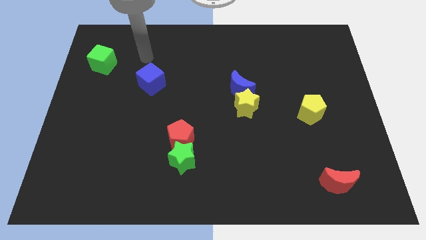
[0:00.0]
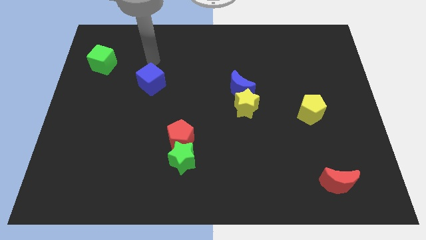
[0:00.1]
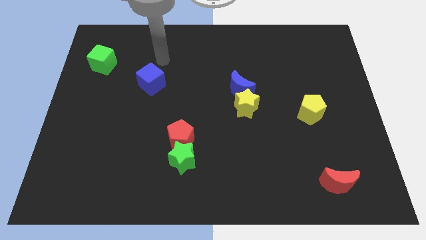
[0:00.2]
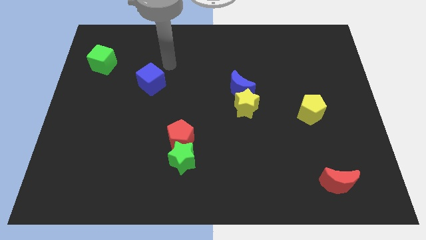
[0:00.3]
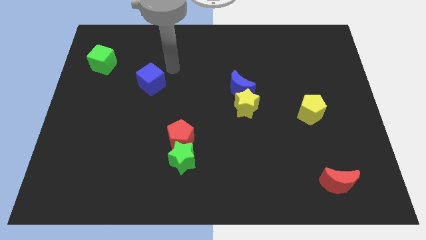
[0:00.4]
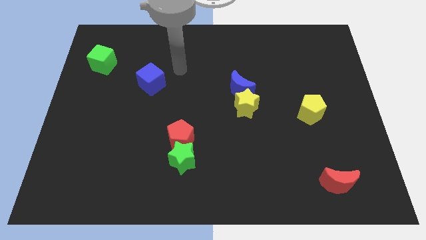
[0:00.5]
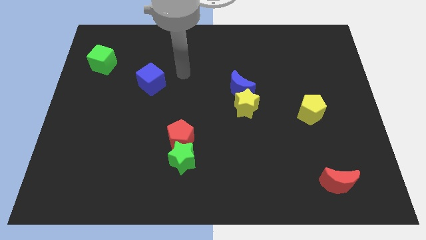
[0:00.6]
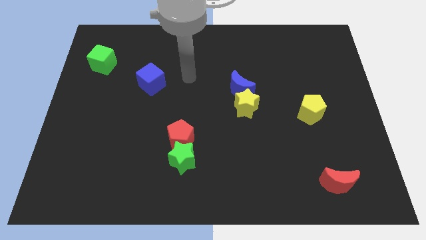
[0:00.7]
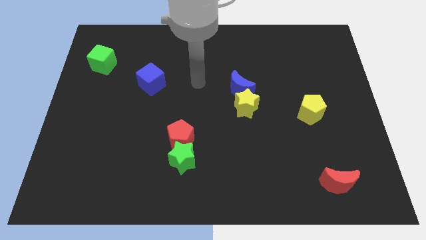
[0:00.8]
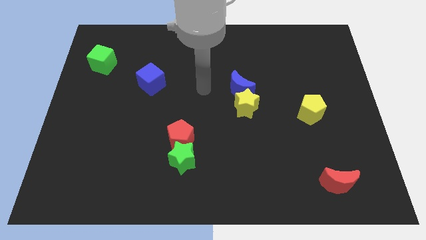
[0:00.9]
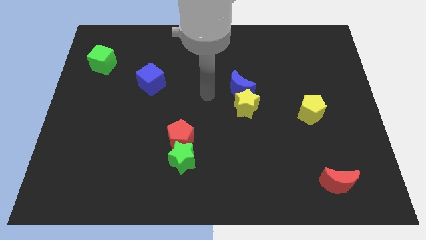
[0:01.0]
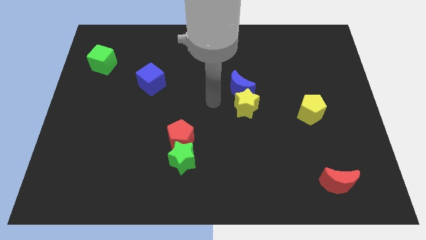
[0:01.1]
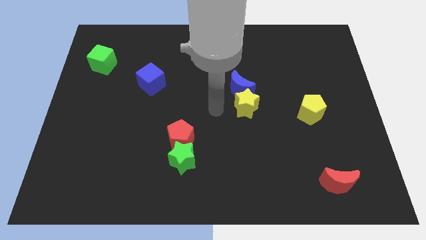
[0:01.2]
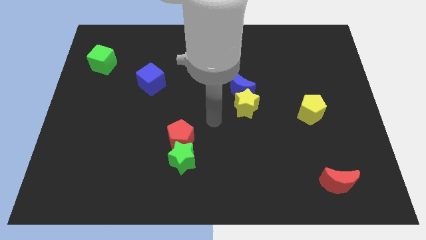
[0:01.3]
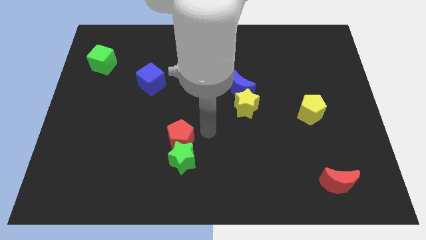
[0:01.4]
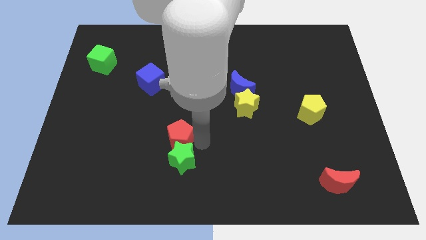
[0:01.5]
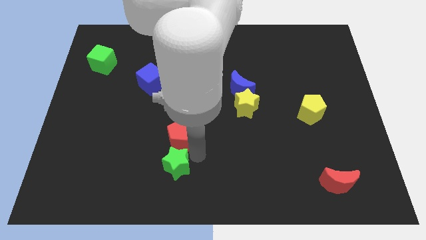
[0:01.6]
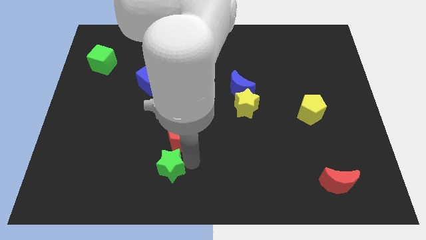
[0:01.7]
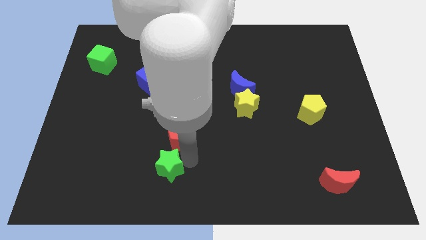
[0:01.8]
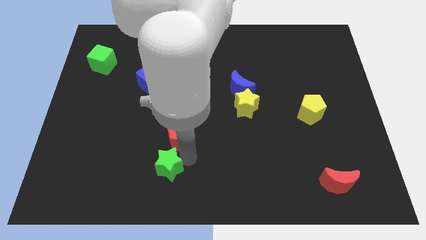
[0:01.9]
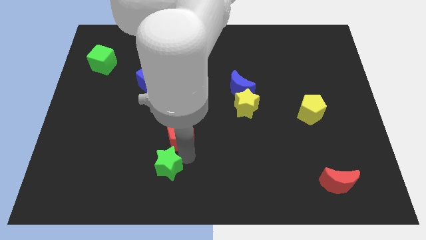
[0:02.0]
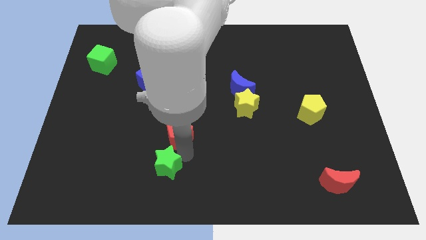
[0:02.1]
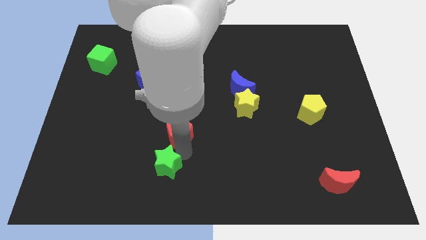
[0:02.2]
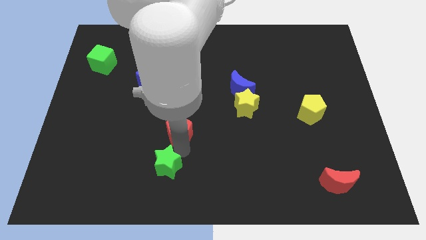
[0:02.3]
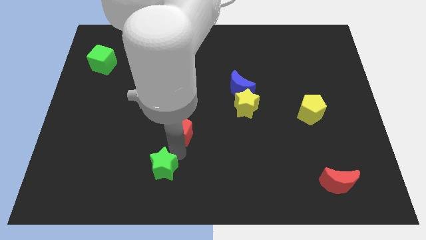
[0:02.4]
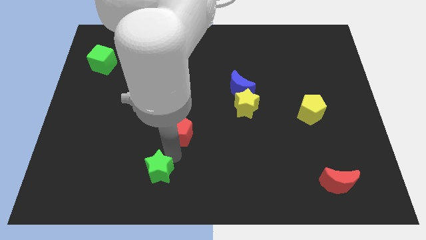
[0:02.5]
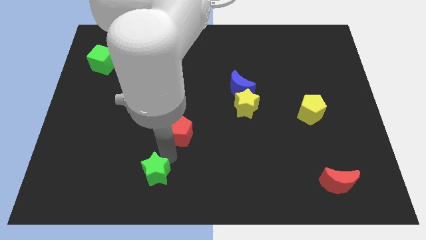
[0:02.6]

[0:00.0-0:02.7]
pull the red pentagon apart from the green star

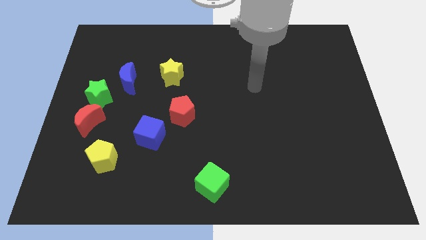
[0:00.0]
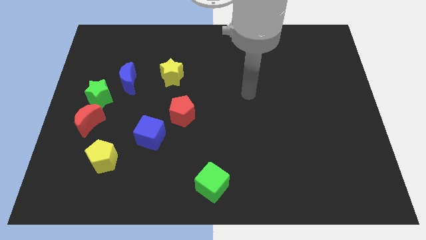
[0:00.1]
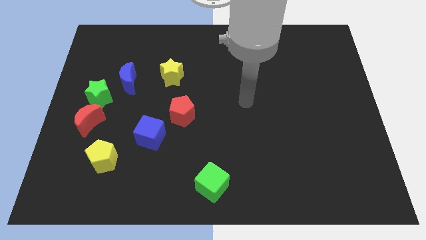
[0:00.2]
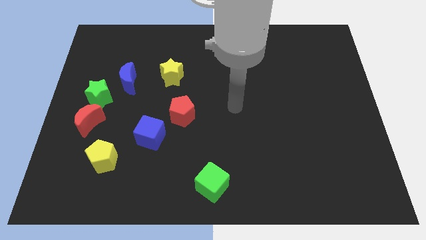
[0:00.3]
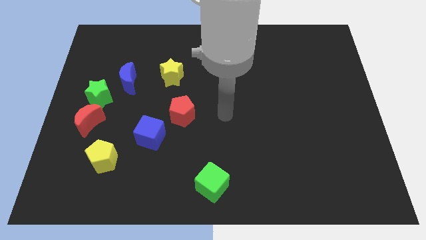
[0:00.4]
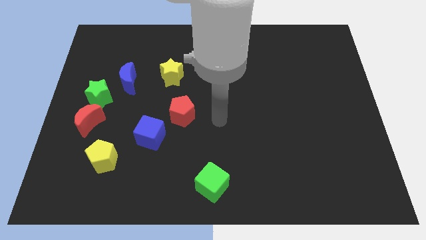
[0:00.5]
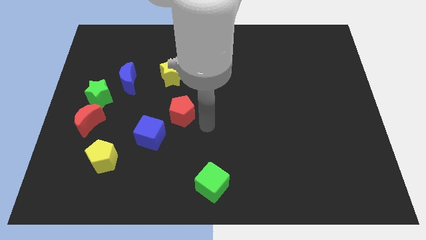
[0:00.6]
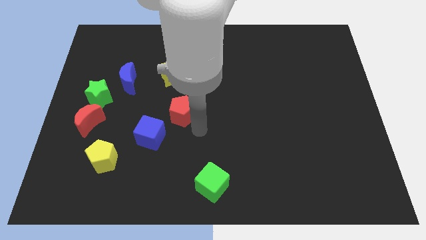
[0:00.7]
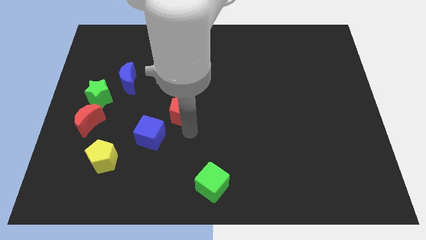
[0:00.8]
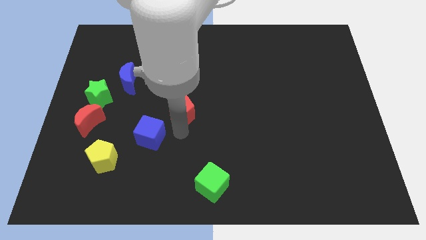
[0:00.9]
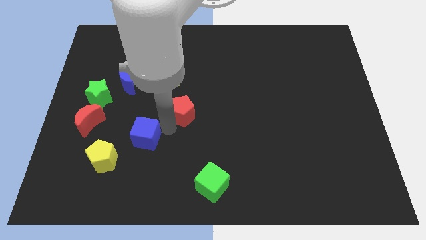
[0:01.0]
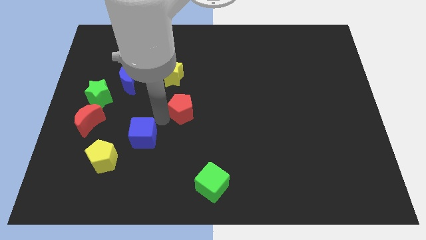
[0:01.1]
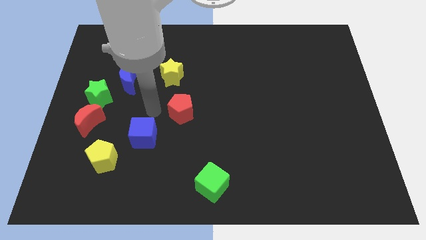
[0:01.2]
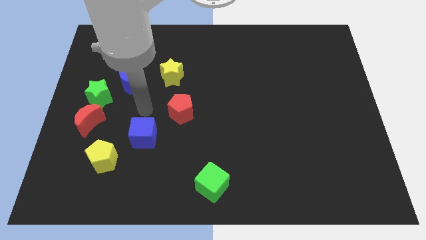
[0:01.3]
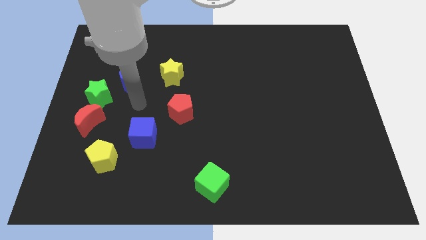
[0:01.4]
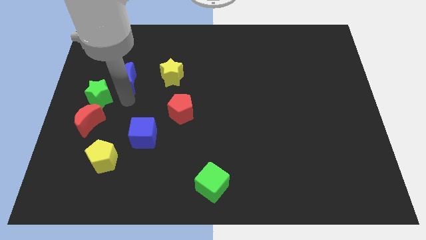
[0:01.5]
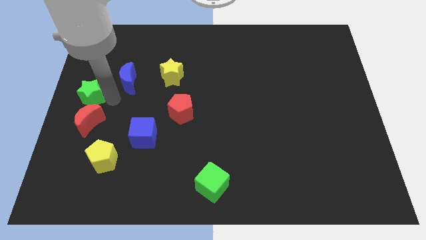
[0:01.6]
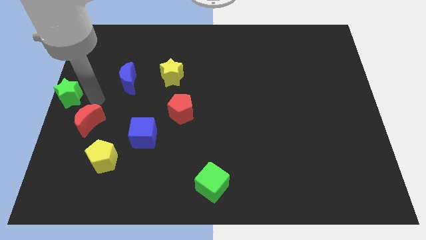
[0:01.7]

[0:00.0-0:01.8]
move the red moon away from the green star

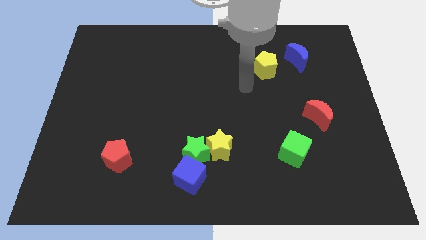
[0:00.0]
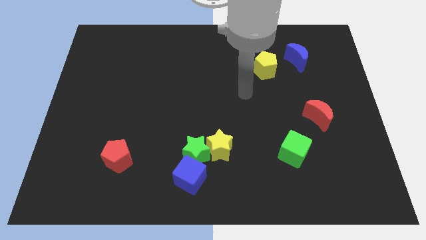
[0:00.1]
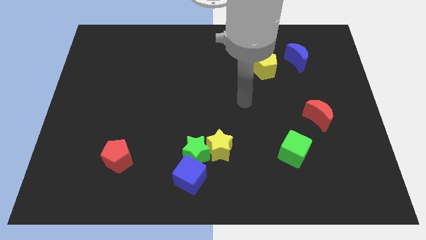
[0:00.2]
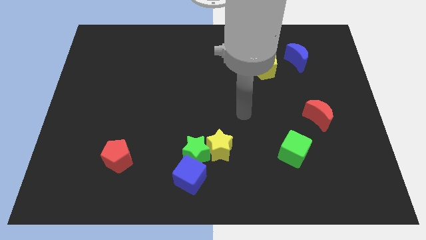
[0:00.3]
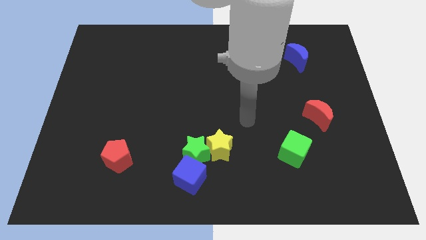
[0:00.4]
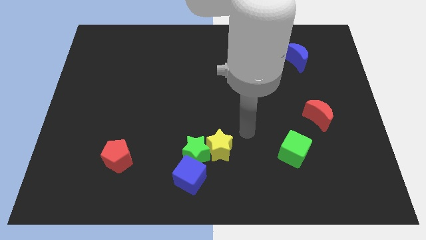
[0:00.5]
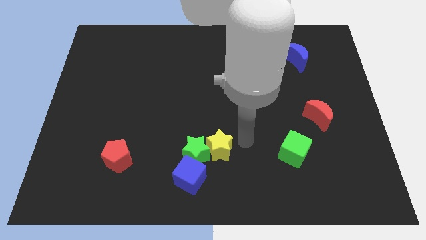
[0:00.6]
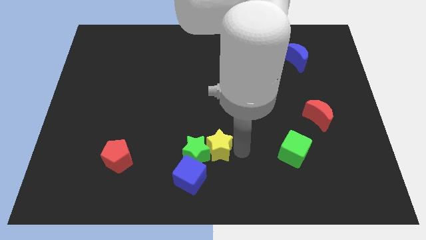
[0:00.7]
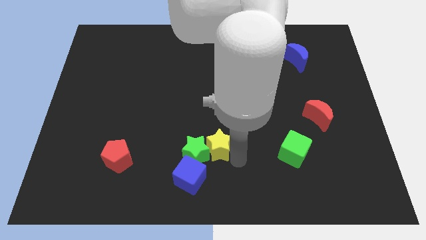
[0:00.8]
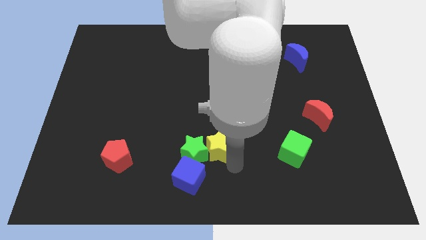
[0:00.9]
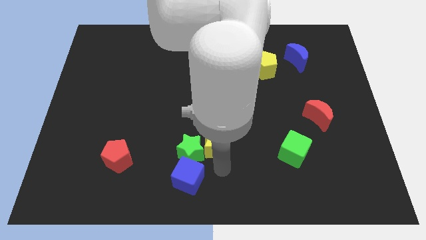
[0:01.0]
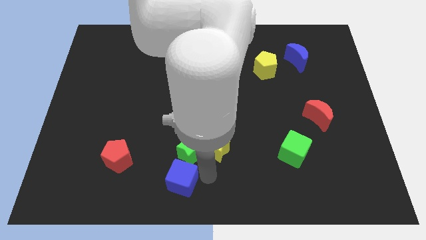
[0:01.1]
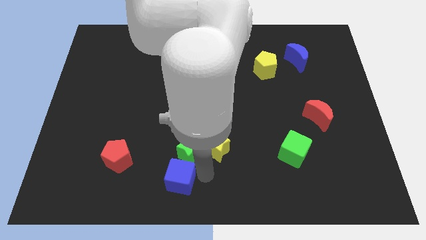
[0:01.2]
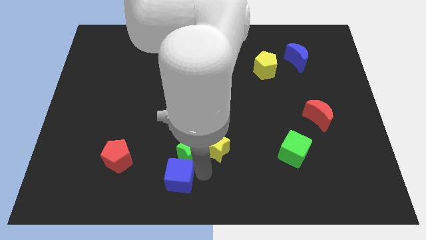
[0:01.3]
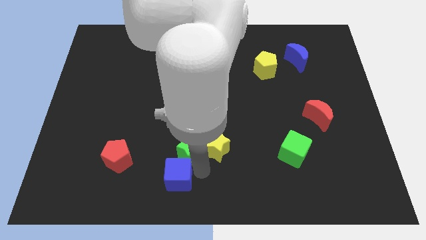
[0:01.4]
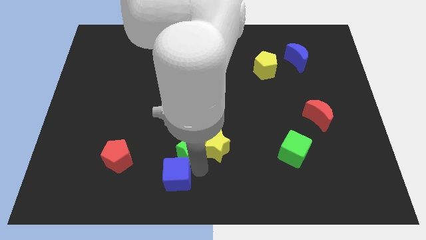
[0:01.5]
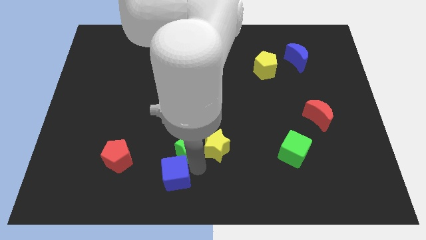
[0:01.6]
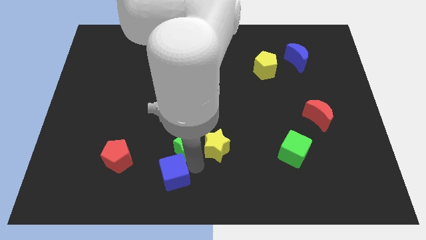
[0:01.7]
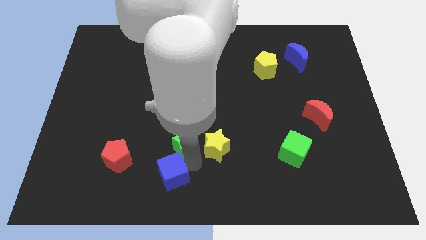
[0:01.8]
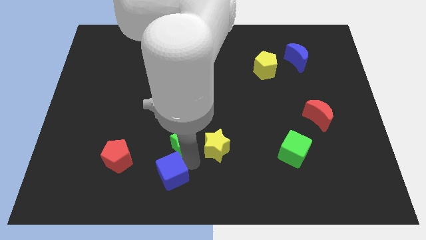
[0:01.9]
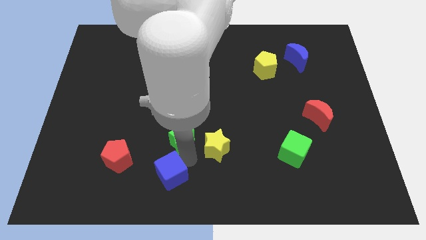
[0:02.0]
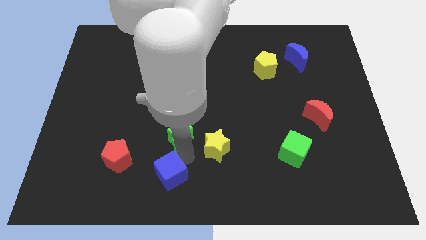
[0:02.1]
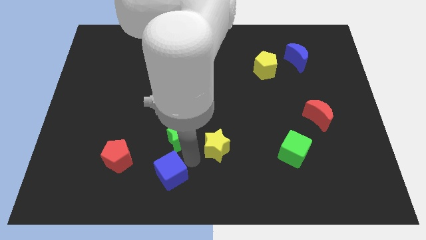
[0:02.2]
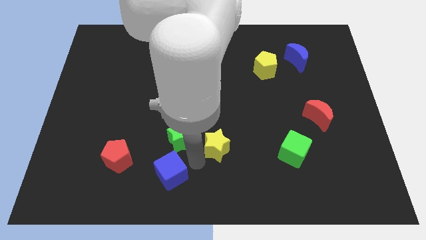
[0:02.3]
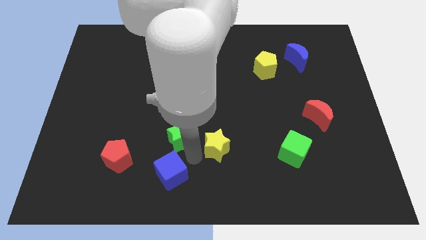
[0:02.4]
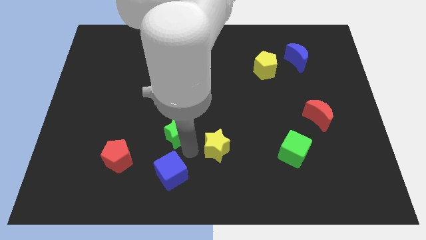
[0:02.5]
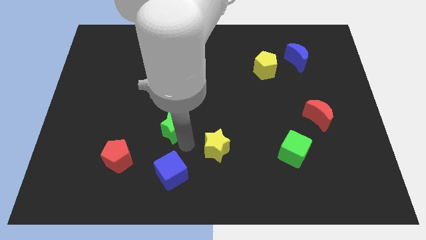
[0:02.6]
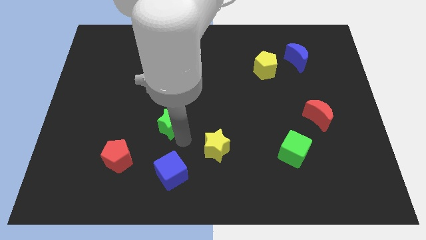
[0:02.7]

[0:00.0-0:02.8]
move the green star away from the yellow star and blue cube

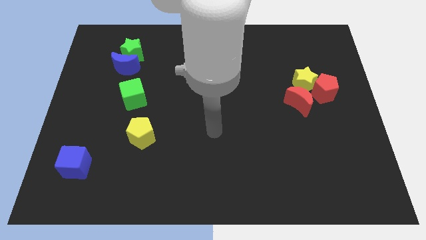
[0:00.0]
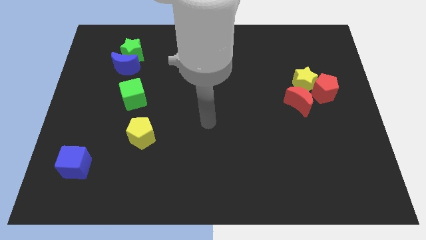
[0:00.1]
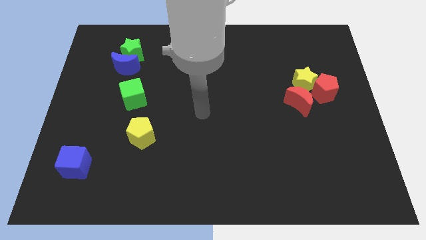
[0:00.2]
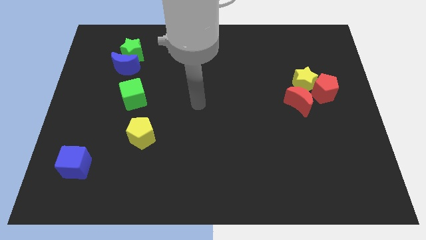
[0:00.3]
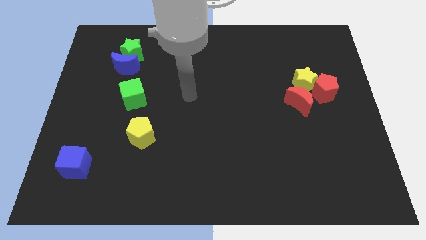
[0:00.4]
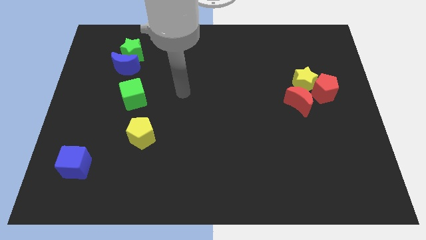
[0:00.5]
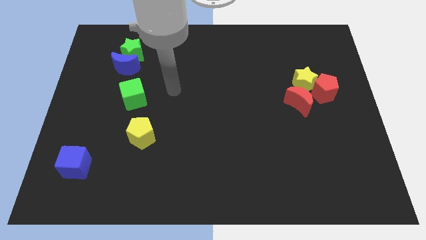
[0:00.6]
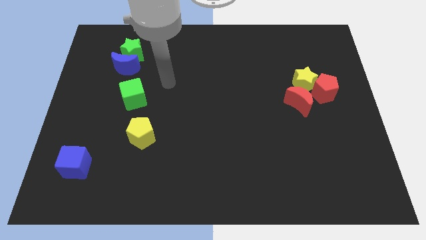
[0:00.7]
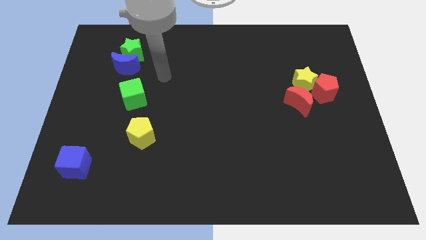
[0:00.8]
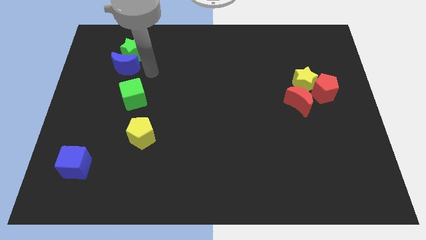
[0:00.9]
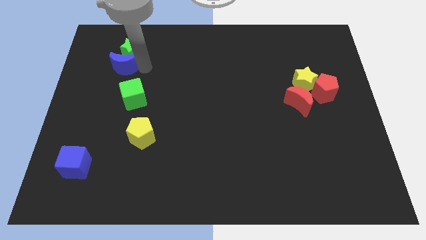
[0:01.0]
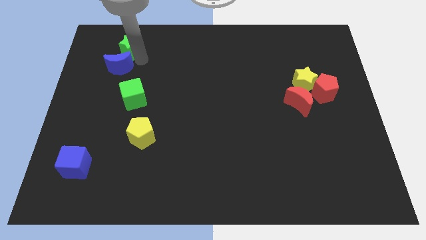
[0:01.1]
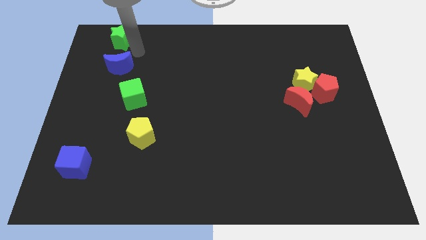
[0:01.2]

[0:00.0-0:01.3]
pull the blue moon apart from the green star

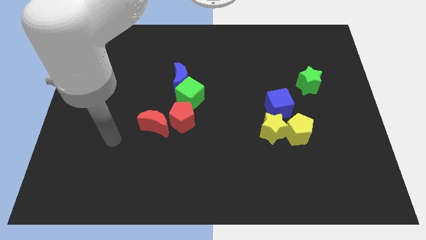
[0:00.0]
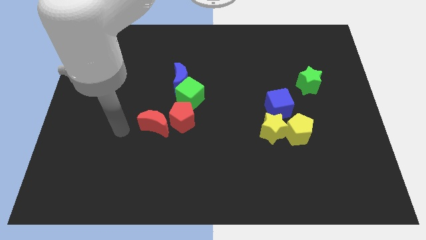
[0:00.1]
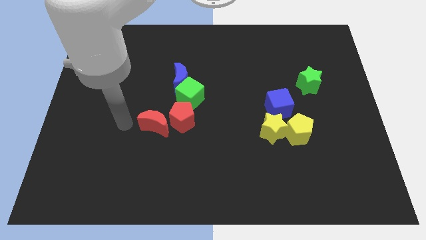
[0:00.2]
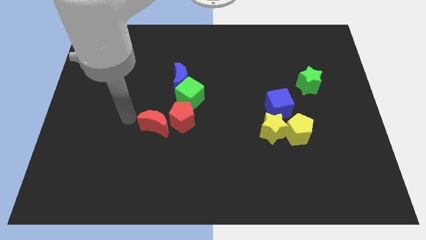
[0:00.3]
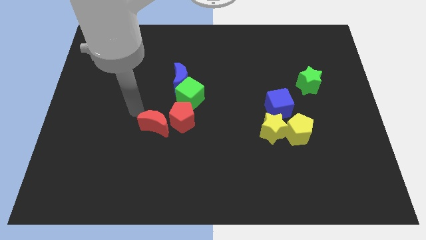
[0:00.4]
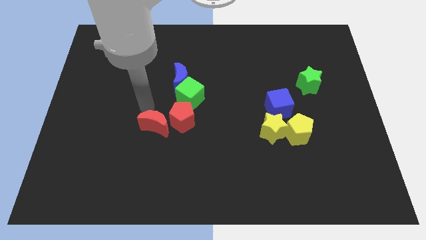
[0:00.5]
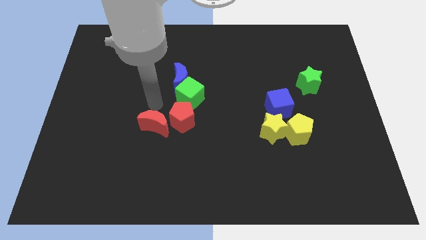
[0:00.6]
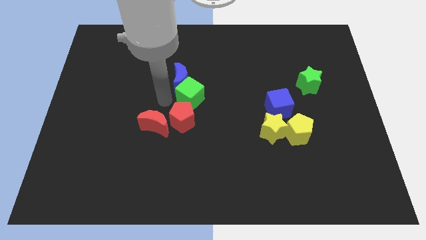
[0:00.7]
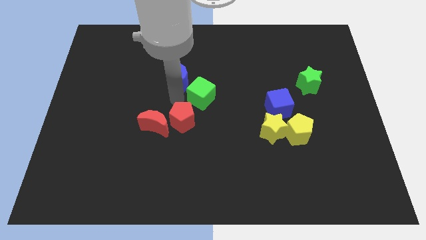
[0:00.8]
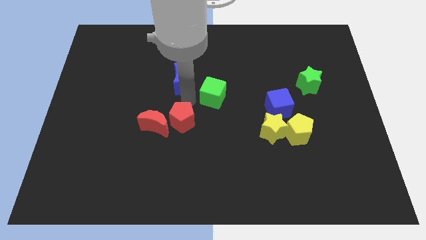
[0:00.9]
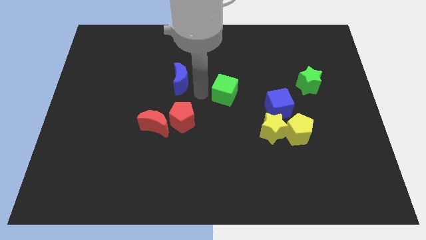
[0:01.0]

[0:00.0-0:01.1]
pull the blue moon apart from the green cube
